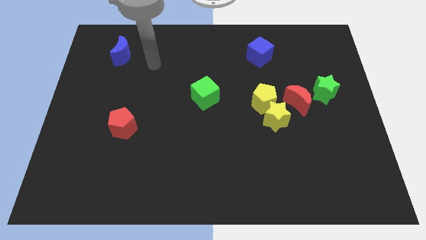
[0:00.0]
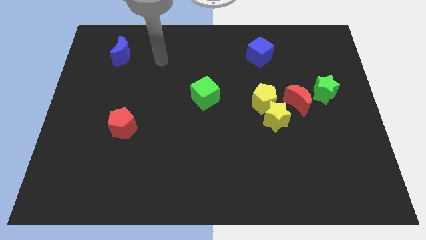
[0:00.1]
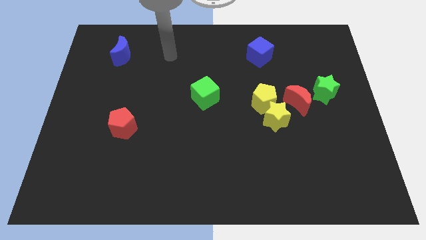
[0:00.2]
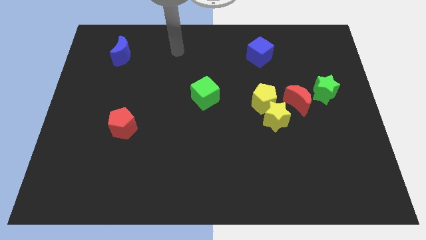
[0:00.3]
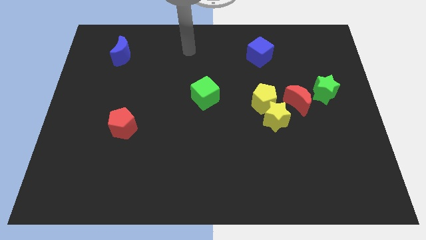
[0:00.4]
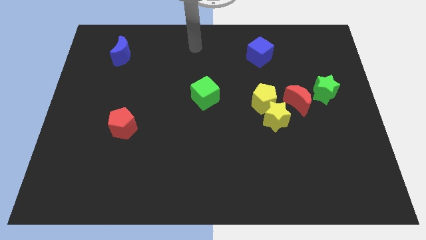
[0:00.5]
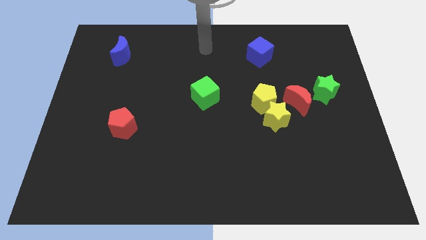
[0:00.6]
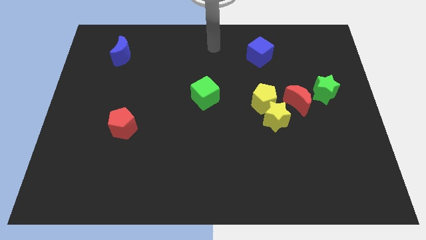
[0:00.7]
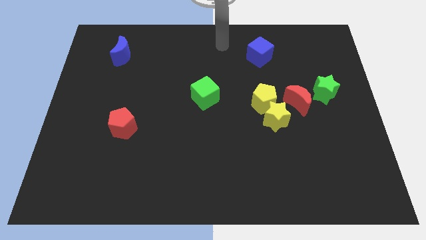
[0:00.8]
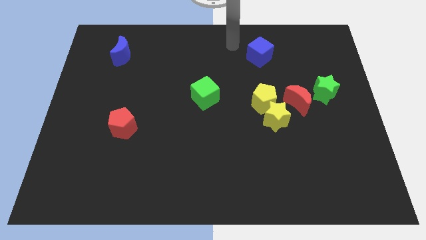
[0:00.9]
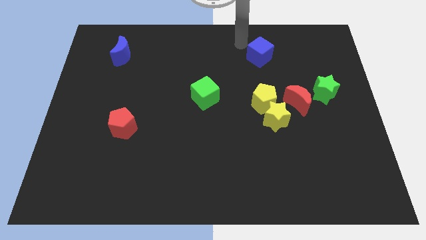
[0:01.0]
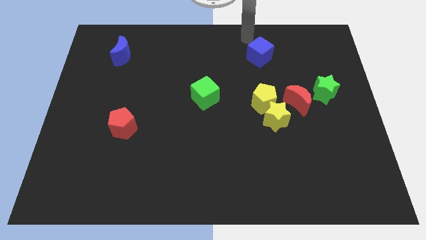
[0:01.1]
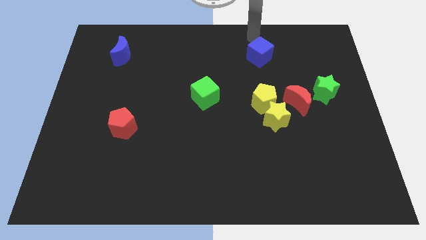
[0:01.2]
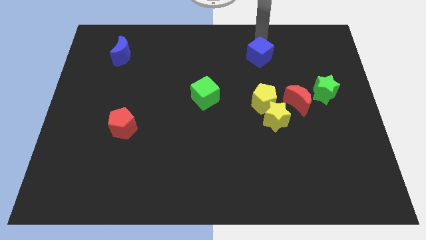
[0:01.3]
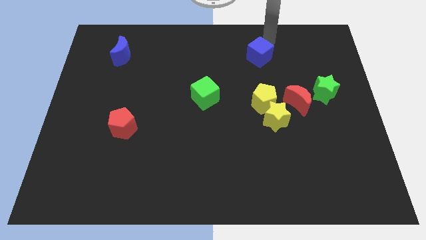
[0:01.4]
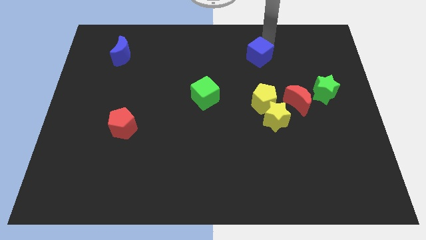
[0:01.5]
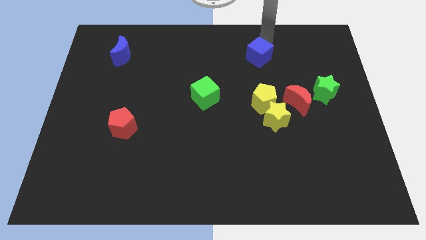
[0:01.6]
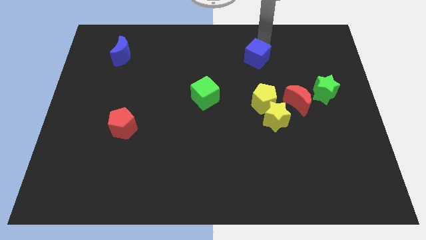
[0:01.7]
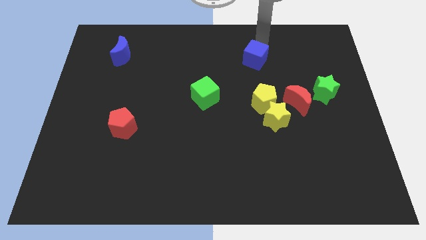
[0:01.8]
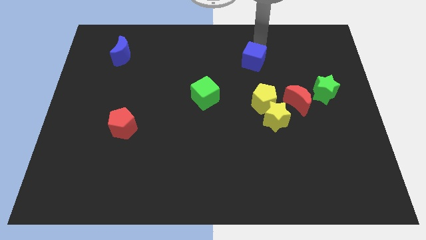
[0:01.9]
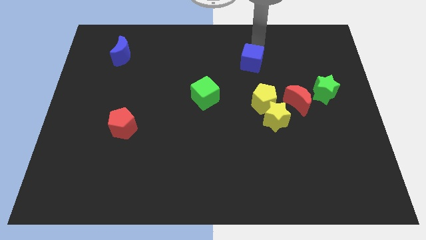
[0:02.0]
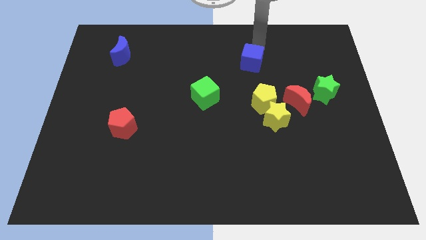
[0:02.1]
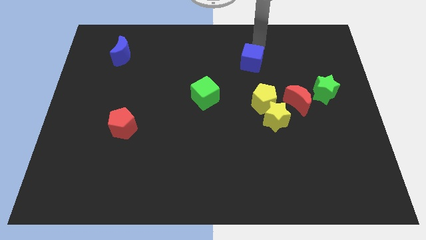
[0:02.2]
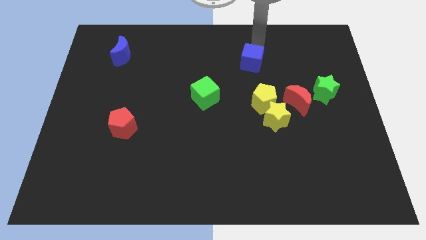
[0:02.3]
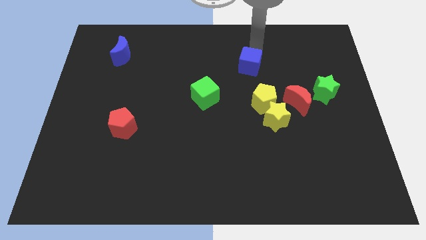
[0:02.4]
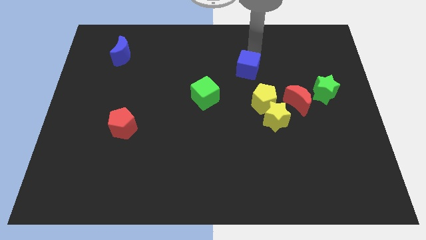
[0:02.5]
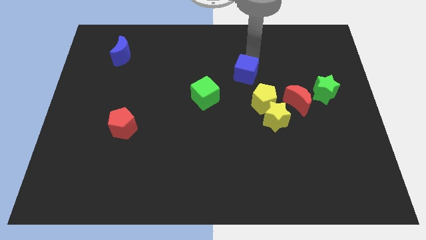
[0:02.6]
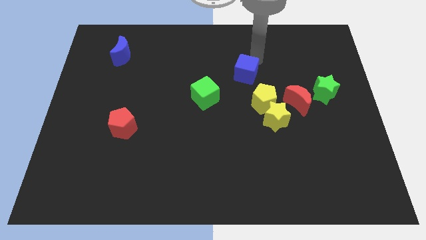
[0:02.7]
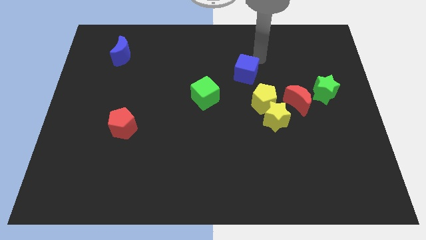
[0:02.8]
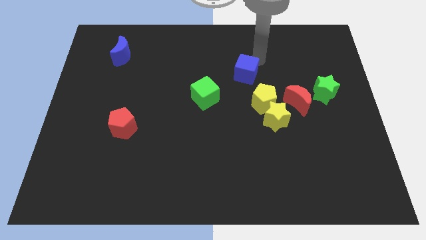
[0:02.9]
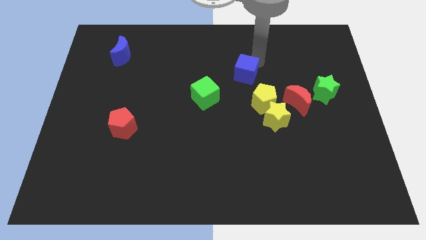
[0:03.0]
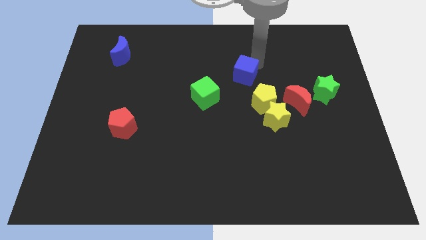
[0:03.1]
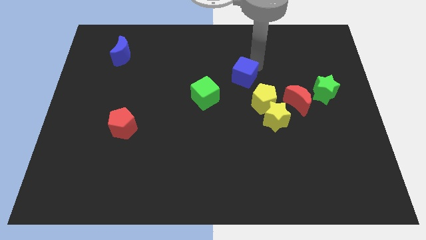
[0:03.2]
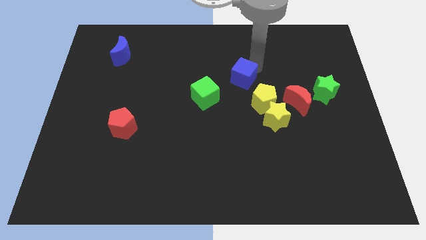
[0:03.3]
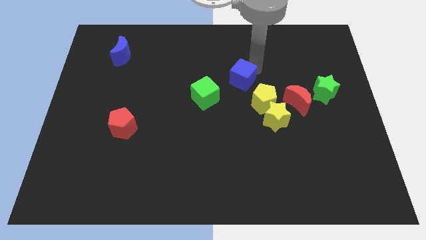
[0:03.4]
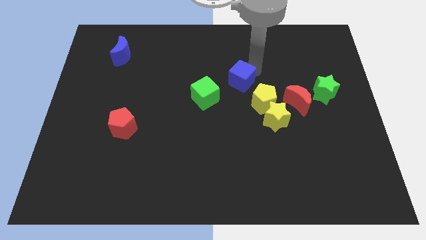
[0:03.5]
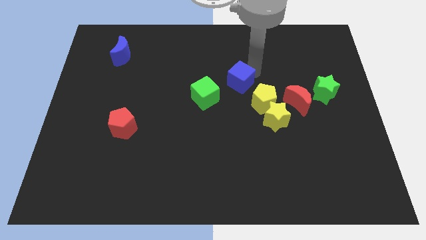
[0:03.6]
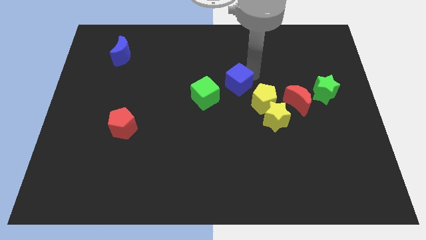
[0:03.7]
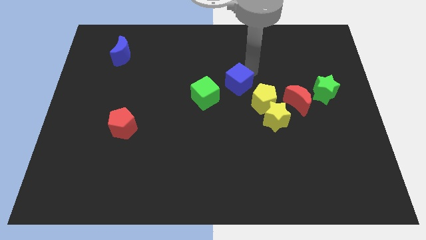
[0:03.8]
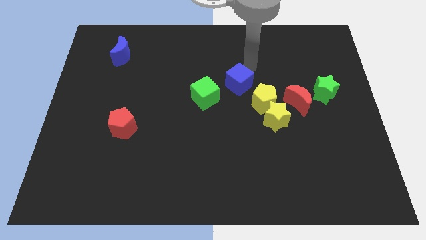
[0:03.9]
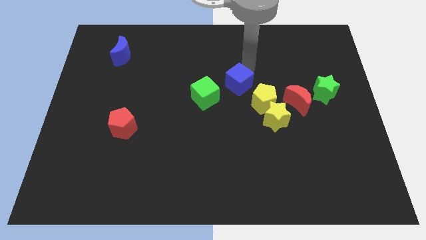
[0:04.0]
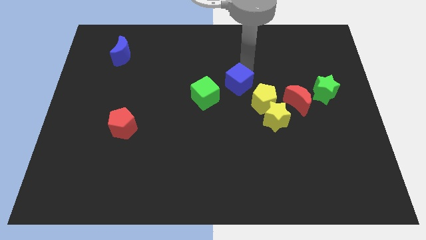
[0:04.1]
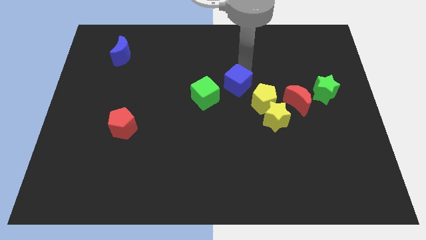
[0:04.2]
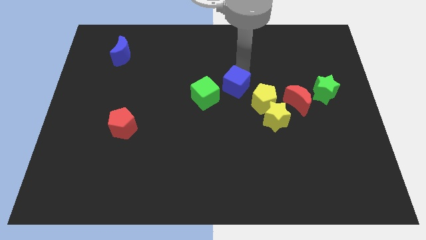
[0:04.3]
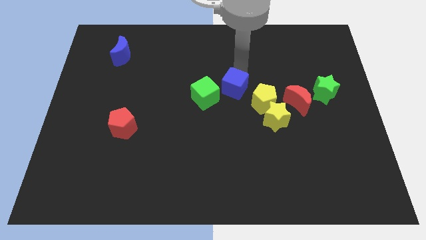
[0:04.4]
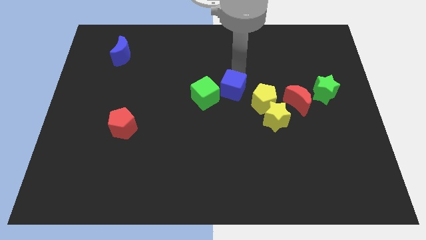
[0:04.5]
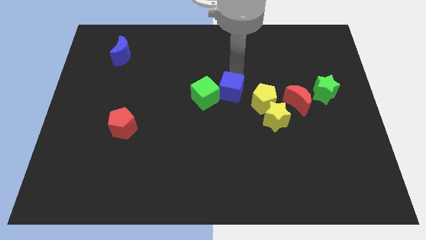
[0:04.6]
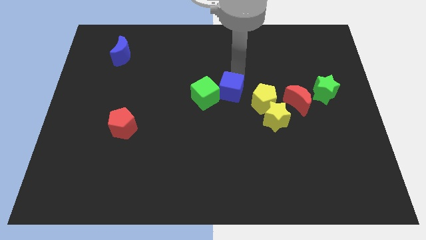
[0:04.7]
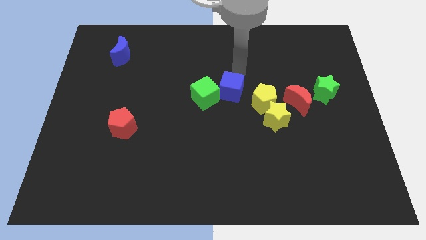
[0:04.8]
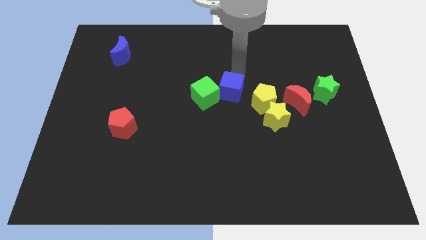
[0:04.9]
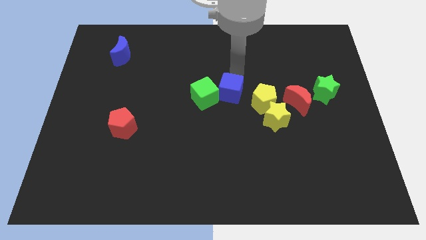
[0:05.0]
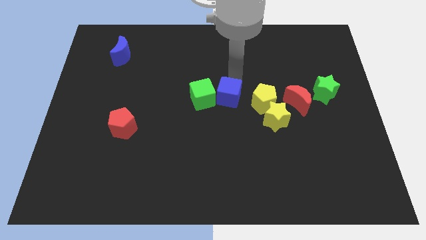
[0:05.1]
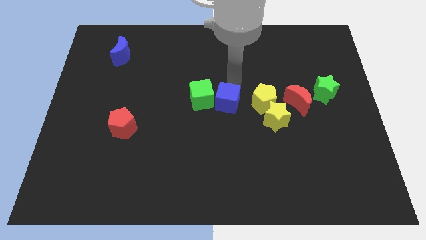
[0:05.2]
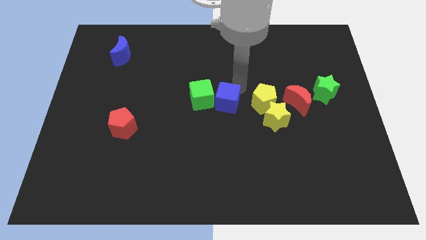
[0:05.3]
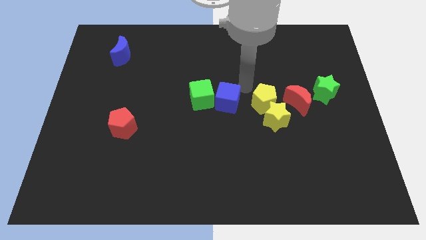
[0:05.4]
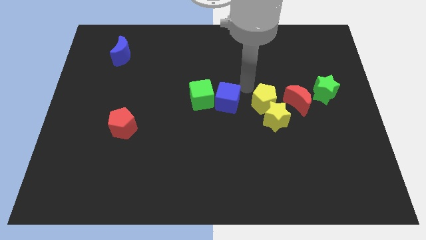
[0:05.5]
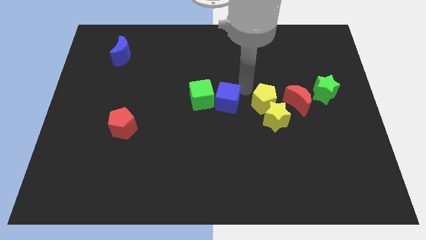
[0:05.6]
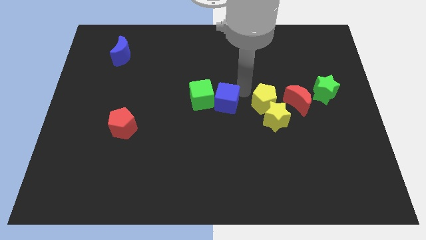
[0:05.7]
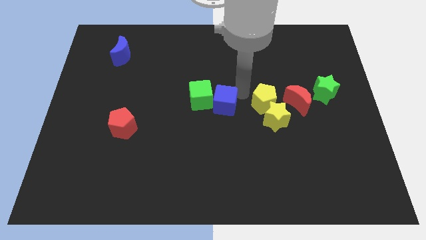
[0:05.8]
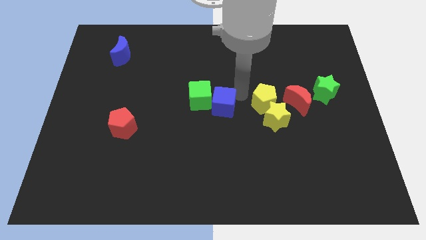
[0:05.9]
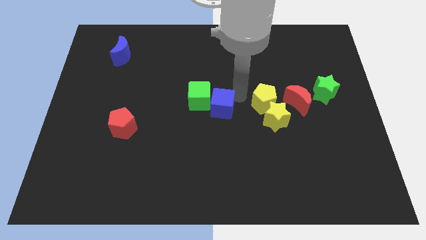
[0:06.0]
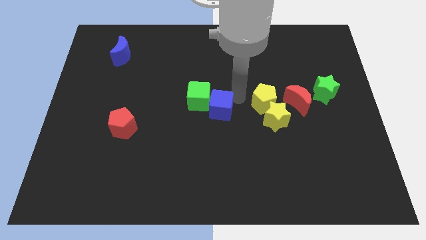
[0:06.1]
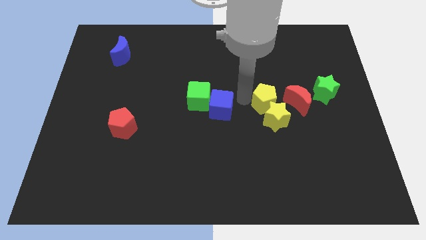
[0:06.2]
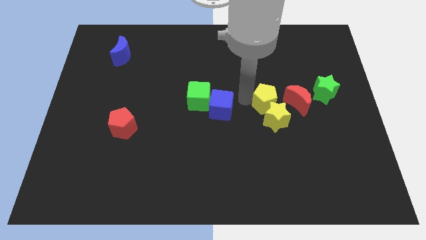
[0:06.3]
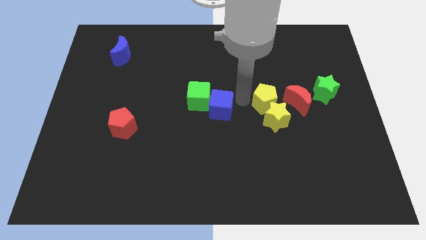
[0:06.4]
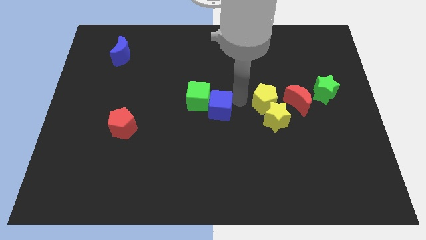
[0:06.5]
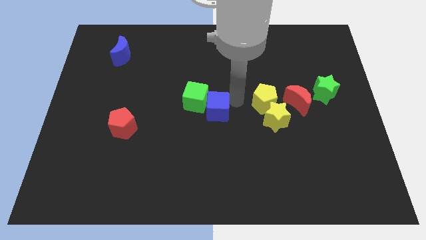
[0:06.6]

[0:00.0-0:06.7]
move the blue cube down and left

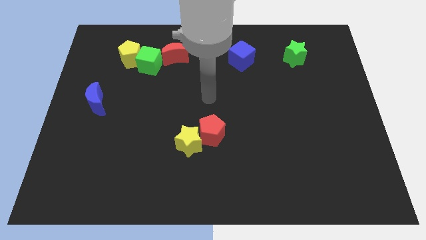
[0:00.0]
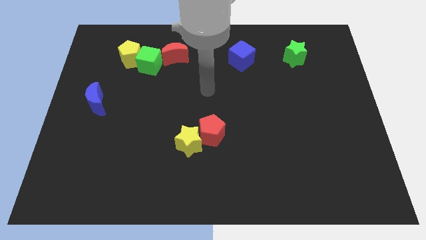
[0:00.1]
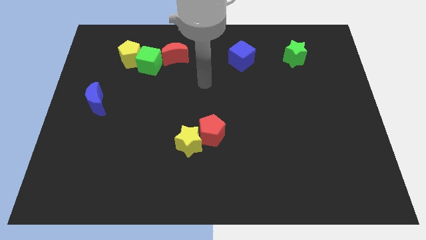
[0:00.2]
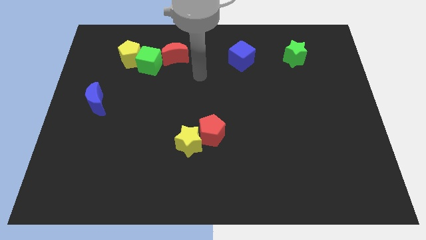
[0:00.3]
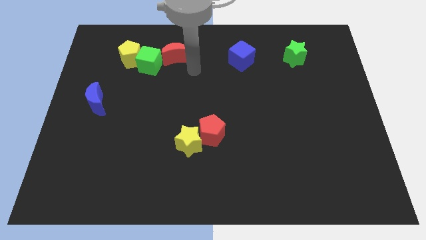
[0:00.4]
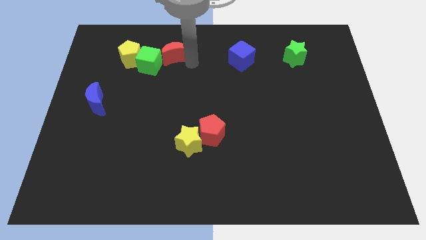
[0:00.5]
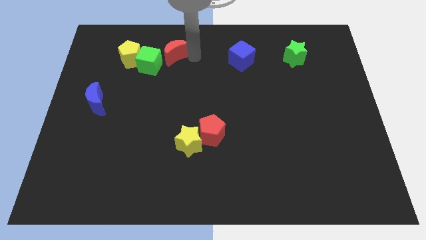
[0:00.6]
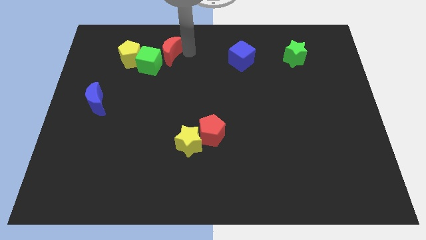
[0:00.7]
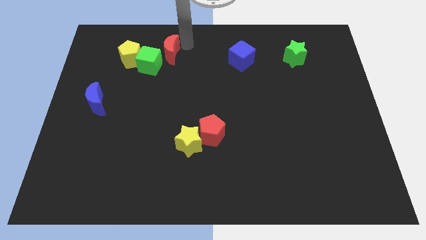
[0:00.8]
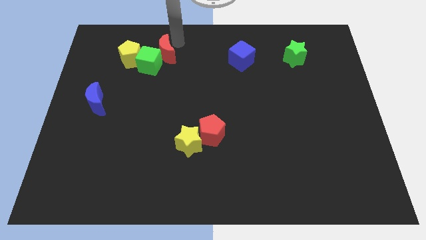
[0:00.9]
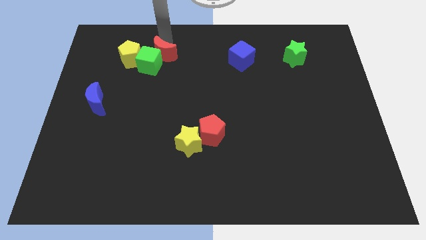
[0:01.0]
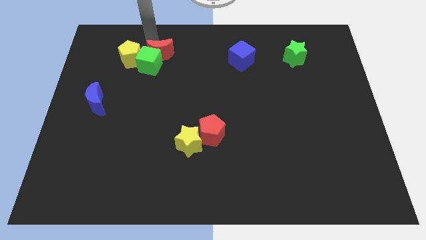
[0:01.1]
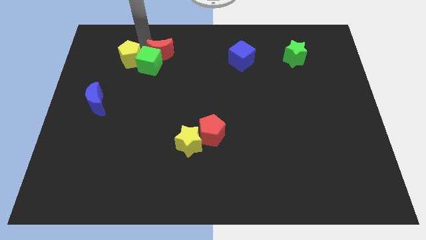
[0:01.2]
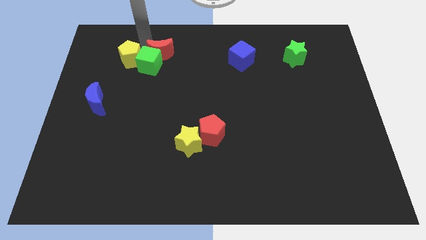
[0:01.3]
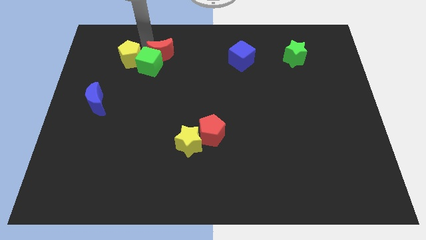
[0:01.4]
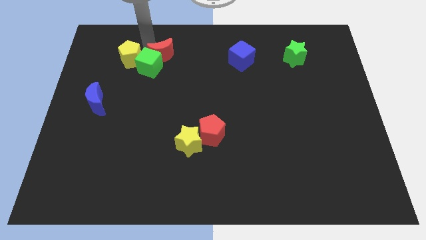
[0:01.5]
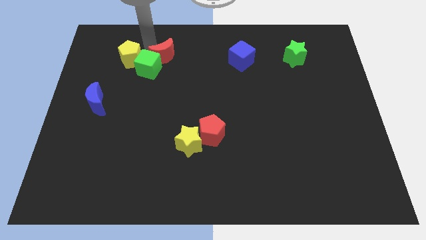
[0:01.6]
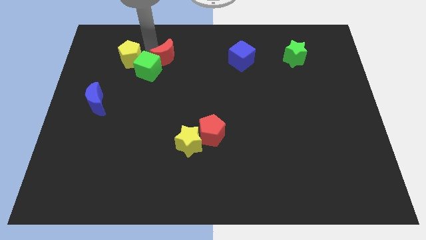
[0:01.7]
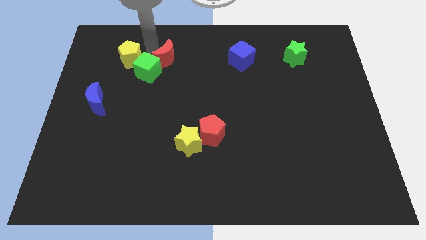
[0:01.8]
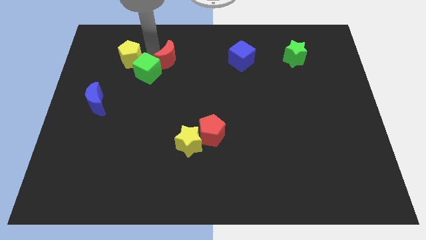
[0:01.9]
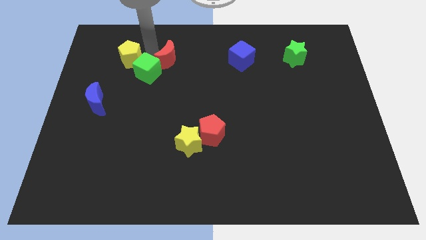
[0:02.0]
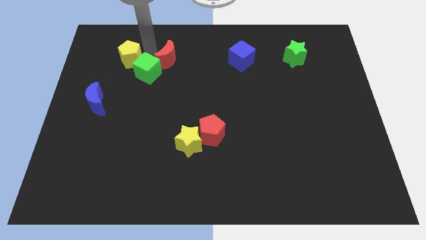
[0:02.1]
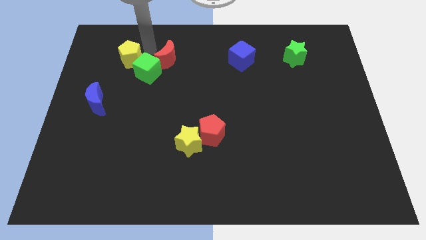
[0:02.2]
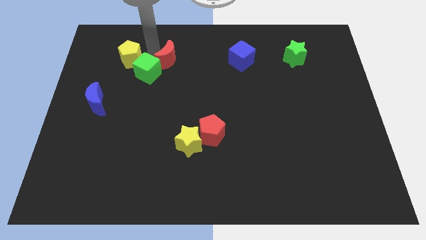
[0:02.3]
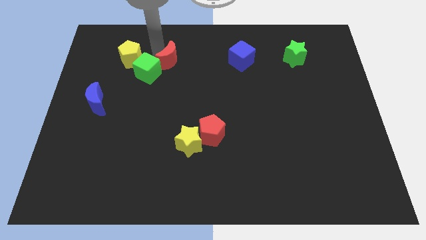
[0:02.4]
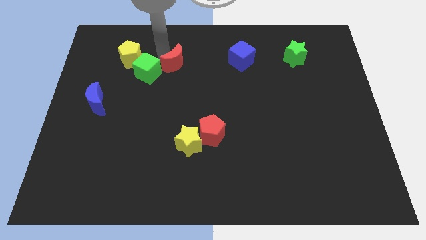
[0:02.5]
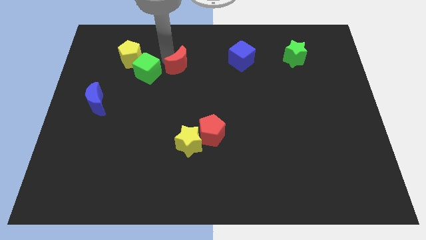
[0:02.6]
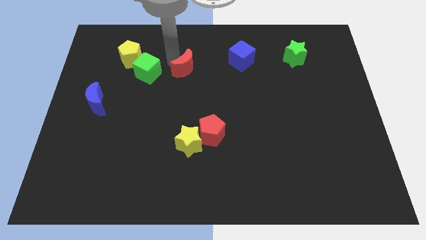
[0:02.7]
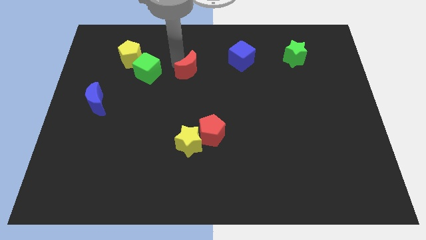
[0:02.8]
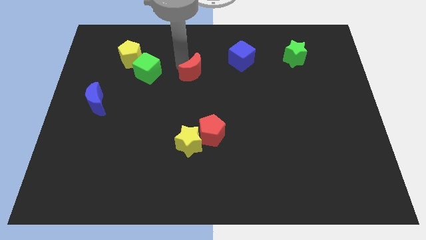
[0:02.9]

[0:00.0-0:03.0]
push the red moon down and then to the right slightly
